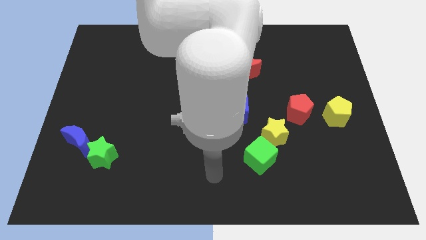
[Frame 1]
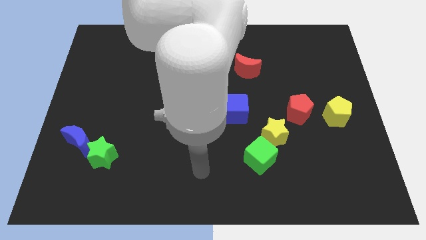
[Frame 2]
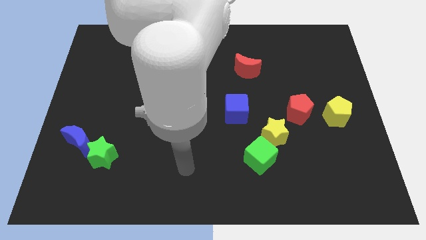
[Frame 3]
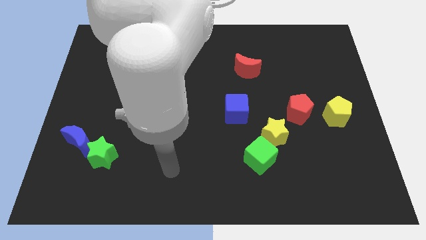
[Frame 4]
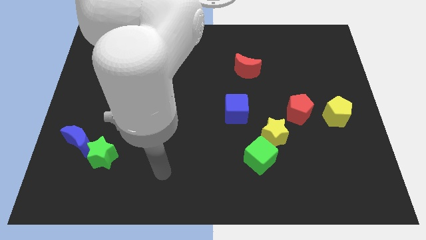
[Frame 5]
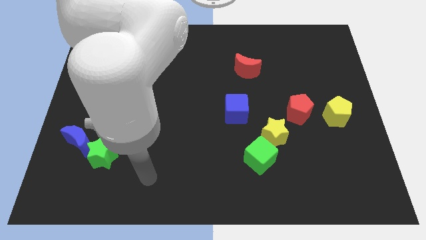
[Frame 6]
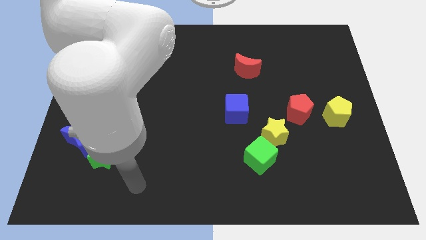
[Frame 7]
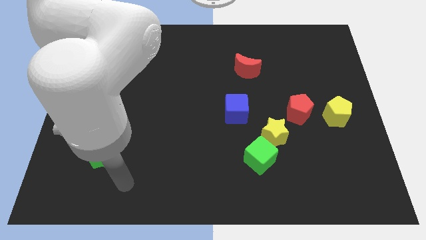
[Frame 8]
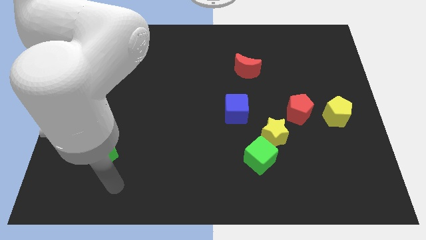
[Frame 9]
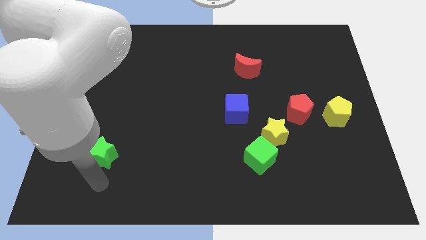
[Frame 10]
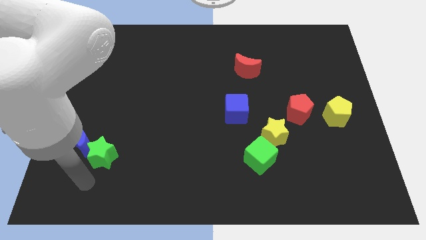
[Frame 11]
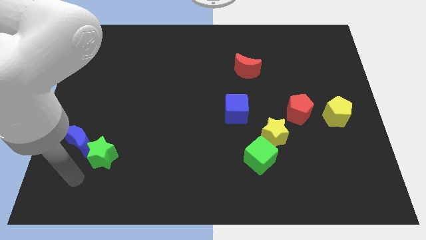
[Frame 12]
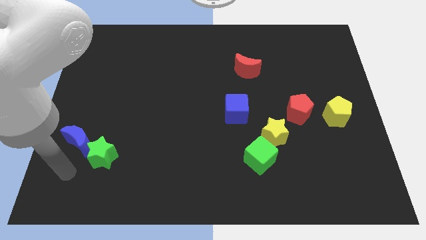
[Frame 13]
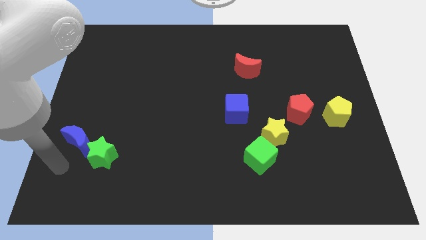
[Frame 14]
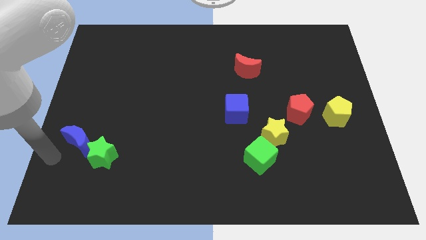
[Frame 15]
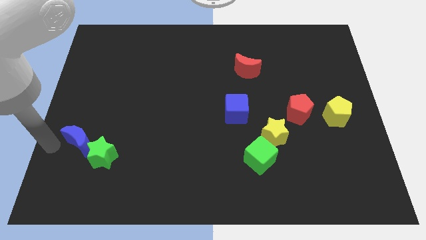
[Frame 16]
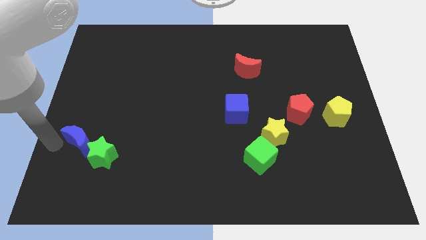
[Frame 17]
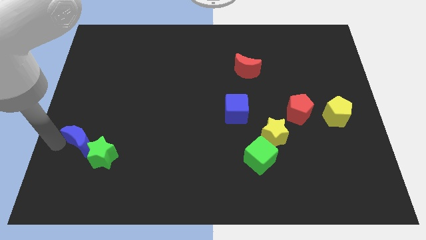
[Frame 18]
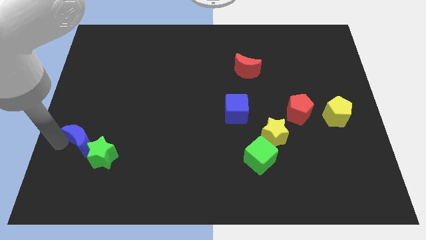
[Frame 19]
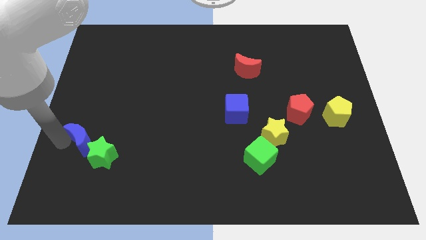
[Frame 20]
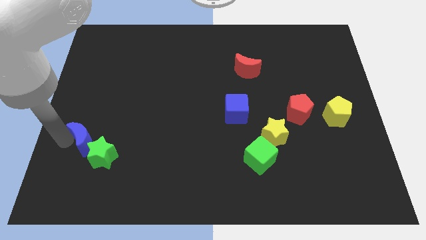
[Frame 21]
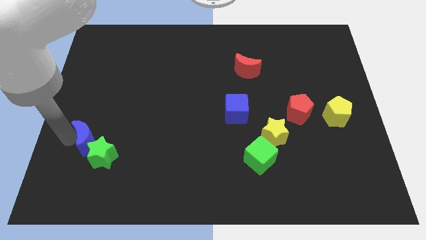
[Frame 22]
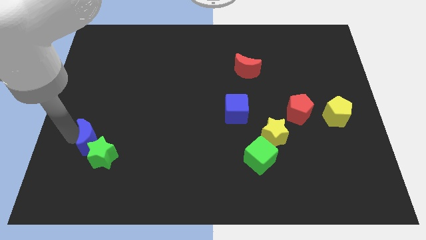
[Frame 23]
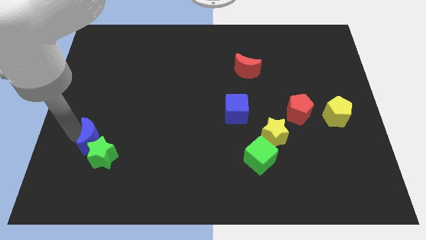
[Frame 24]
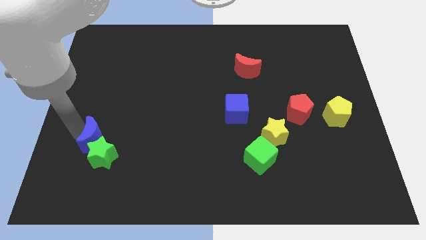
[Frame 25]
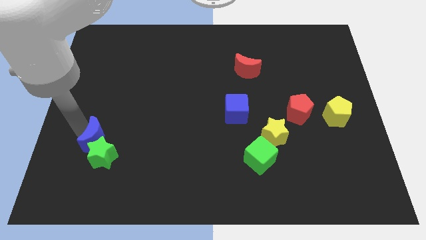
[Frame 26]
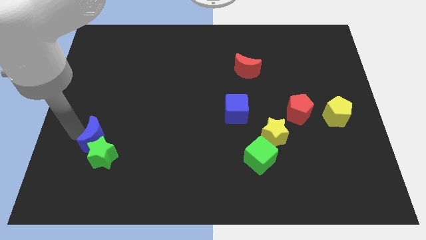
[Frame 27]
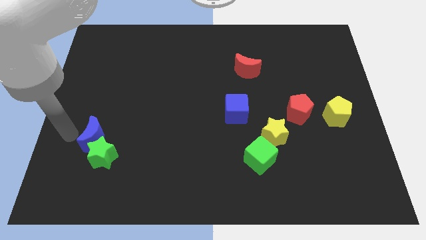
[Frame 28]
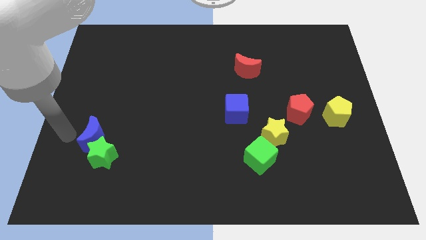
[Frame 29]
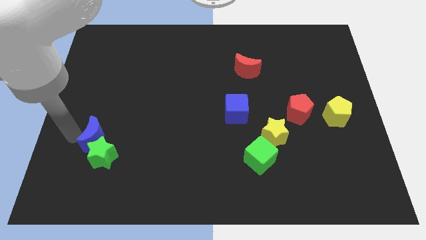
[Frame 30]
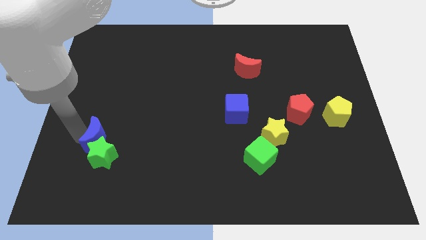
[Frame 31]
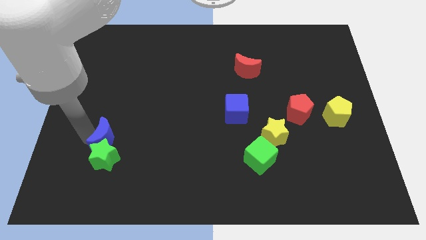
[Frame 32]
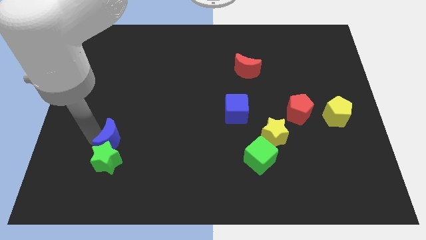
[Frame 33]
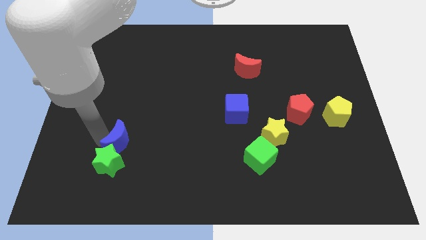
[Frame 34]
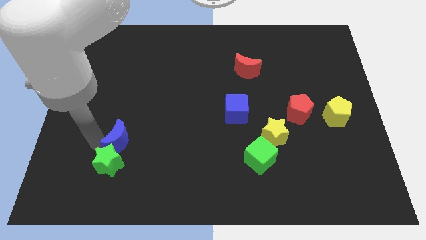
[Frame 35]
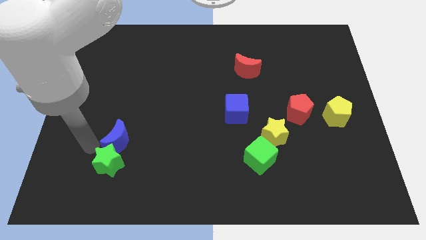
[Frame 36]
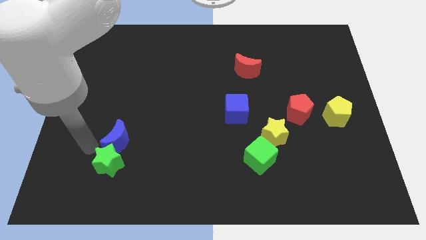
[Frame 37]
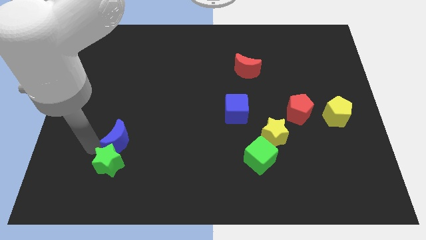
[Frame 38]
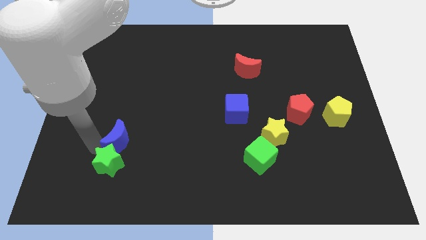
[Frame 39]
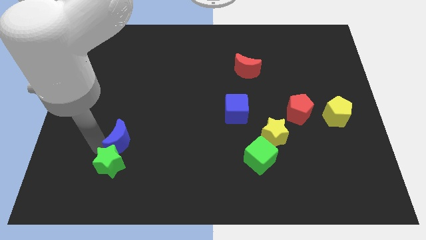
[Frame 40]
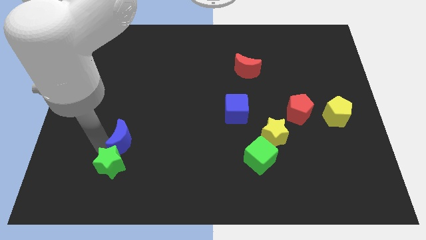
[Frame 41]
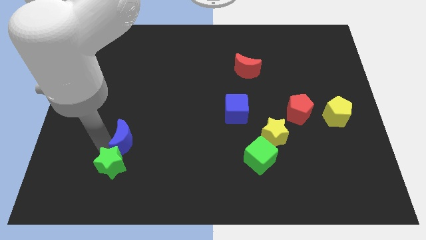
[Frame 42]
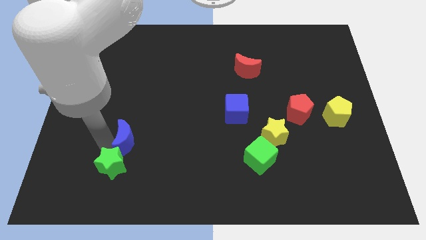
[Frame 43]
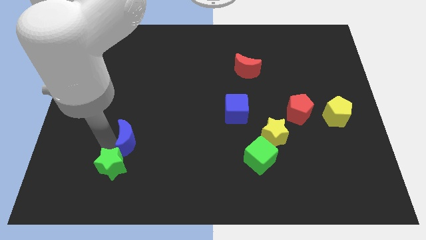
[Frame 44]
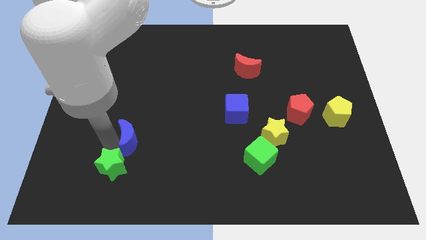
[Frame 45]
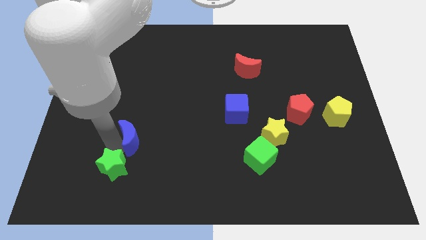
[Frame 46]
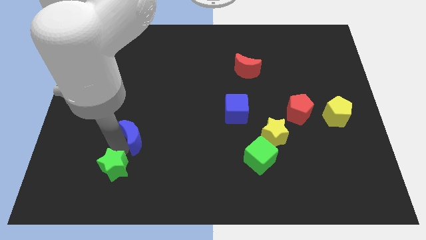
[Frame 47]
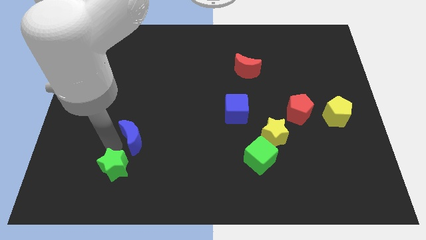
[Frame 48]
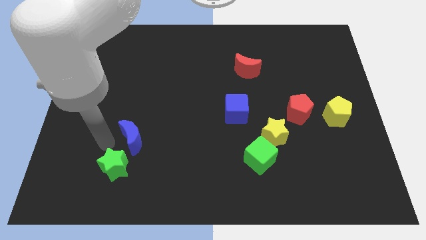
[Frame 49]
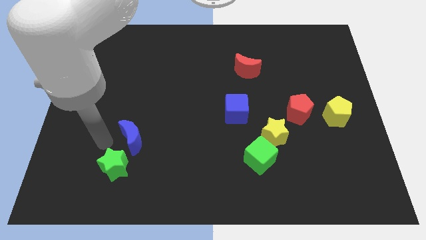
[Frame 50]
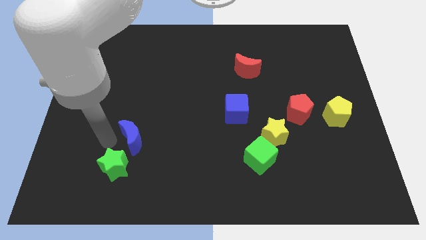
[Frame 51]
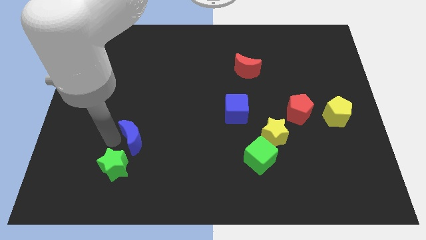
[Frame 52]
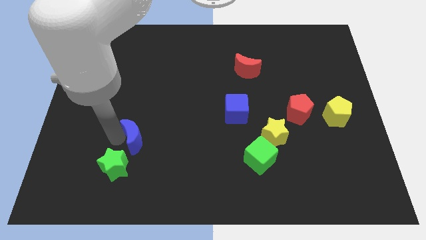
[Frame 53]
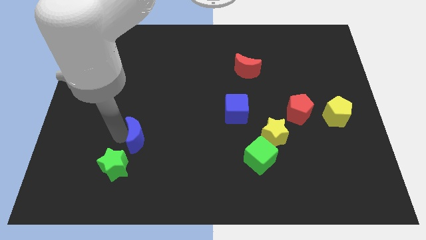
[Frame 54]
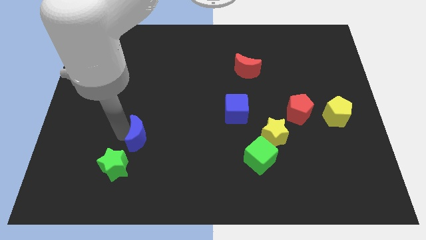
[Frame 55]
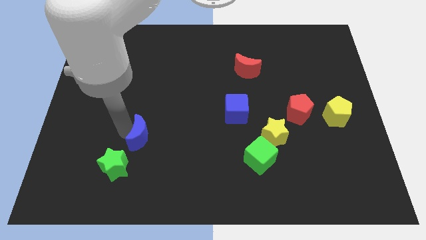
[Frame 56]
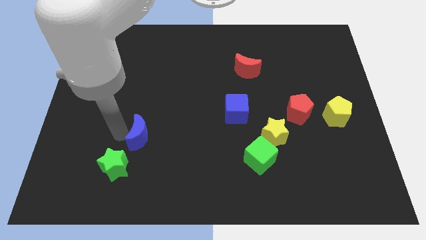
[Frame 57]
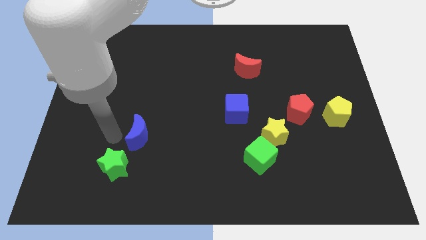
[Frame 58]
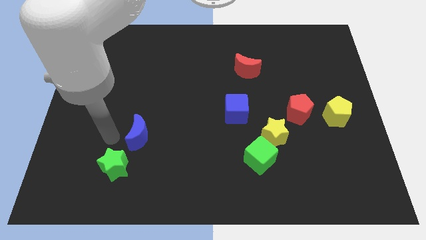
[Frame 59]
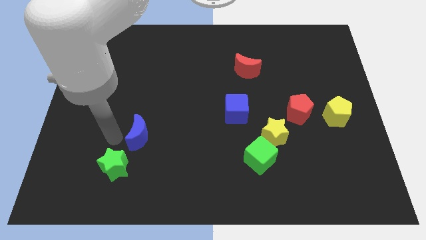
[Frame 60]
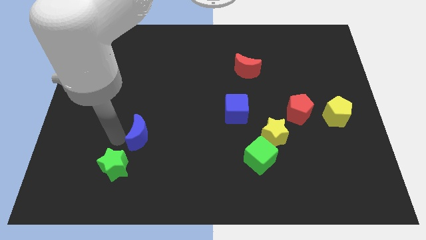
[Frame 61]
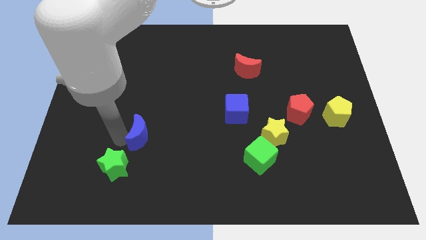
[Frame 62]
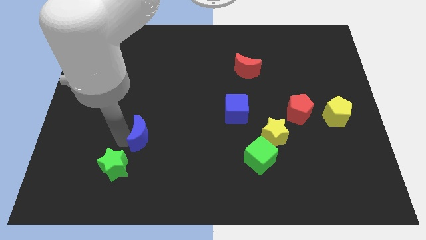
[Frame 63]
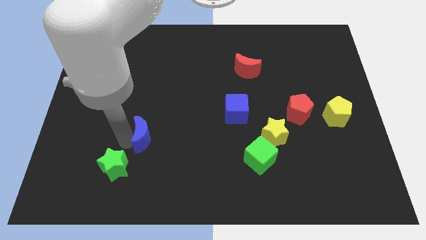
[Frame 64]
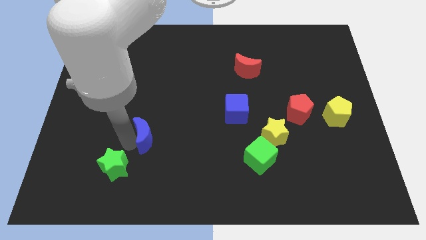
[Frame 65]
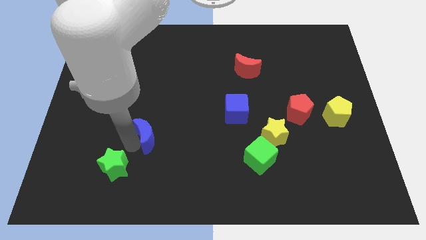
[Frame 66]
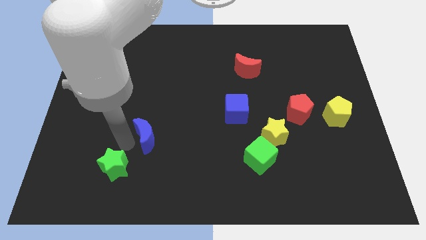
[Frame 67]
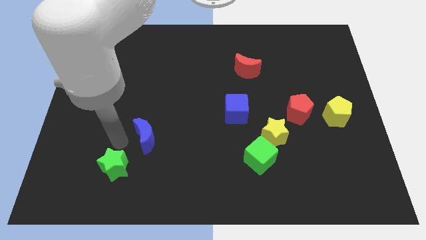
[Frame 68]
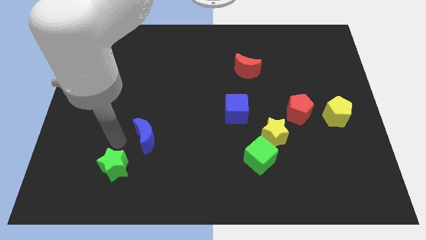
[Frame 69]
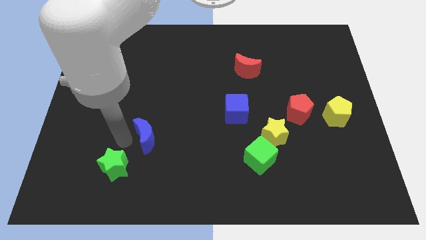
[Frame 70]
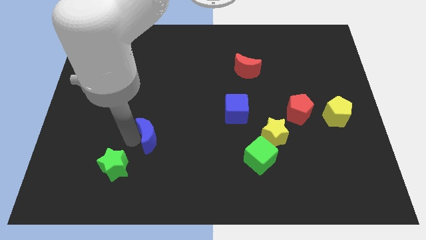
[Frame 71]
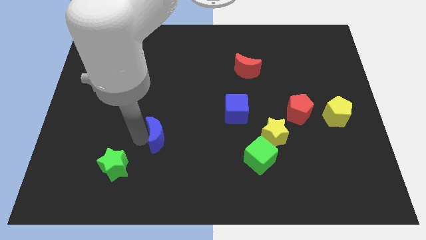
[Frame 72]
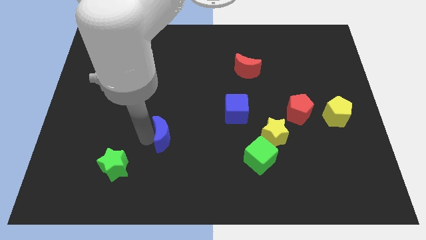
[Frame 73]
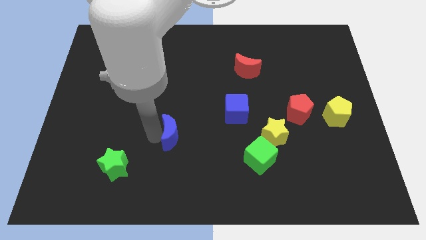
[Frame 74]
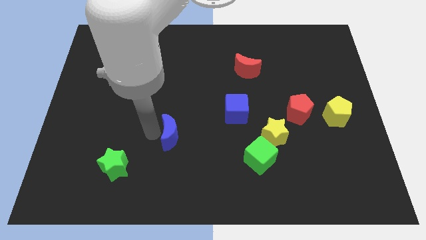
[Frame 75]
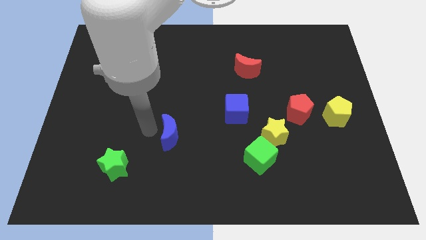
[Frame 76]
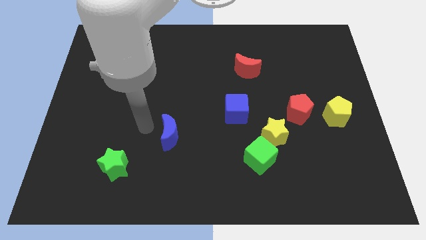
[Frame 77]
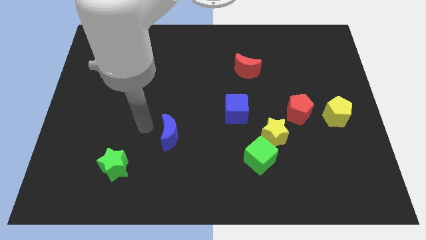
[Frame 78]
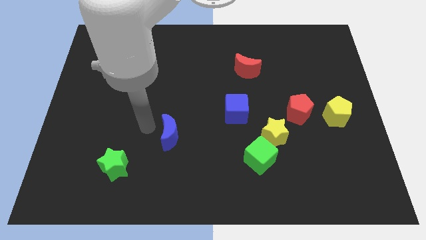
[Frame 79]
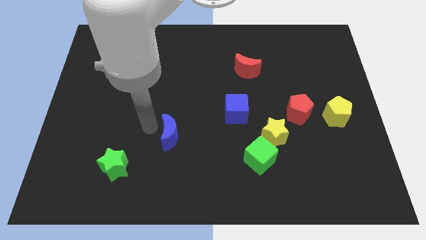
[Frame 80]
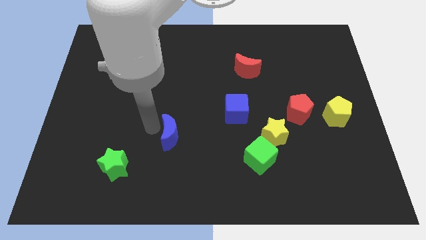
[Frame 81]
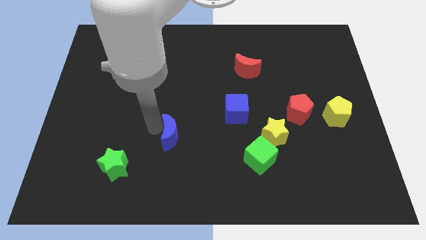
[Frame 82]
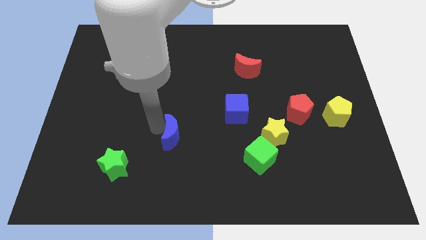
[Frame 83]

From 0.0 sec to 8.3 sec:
move the blue moon right
